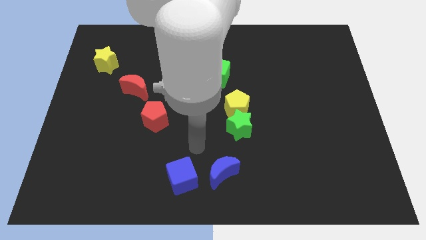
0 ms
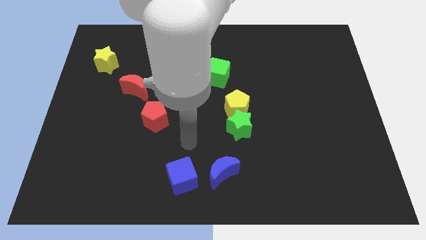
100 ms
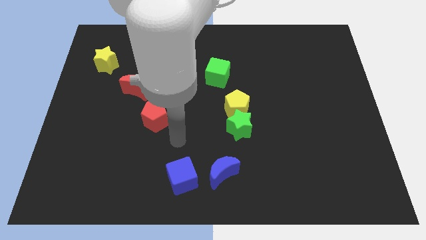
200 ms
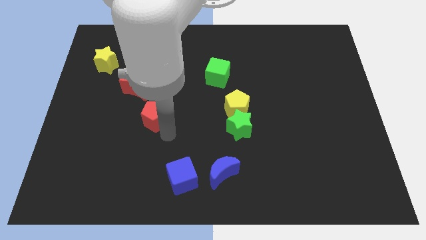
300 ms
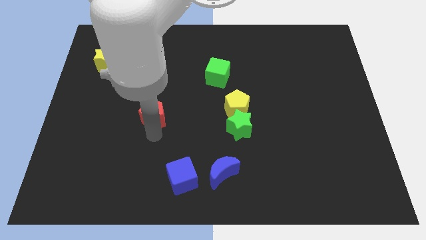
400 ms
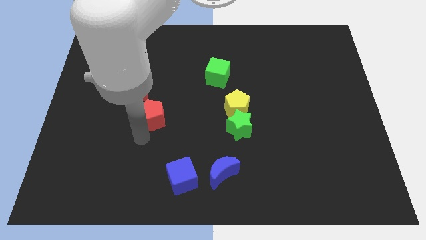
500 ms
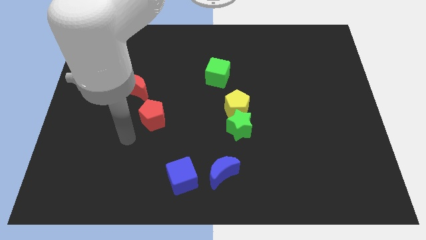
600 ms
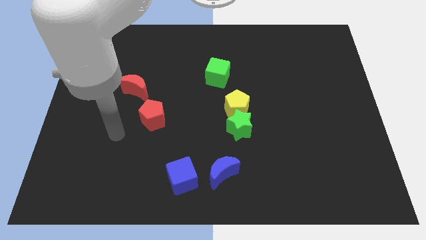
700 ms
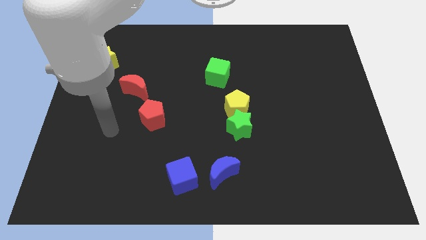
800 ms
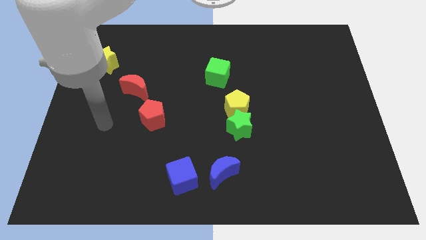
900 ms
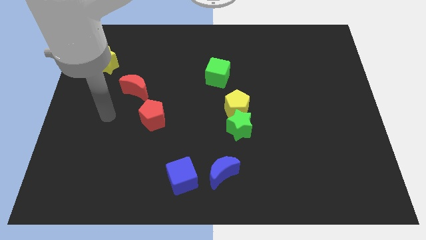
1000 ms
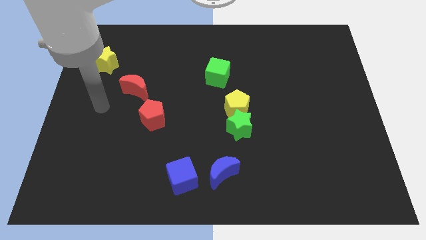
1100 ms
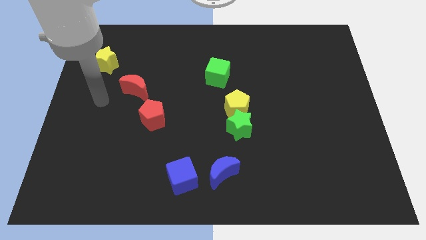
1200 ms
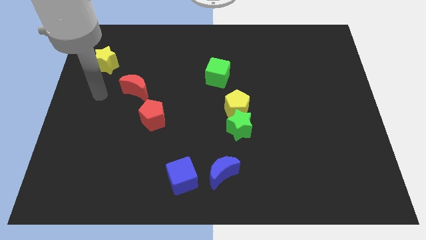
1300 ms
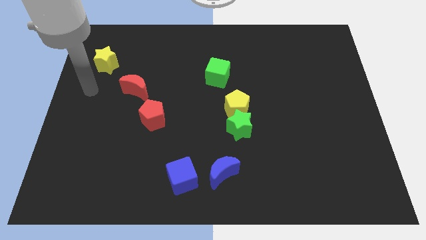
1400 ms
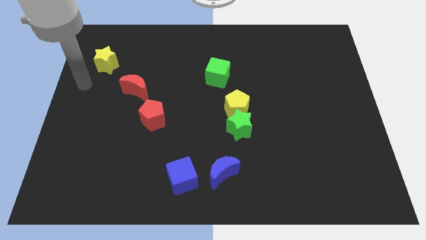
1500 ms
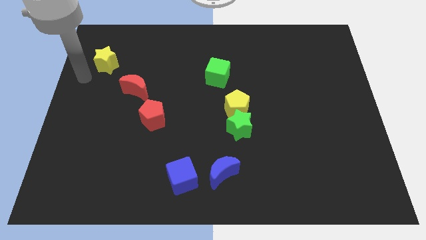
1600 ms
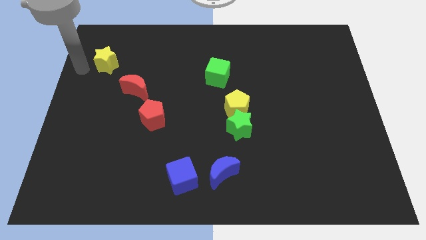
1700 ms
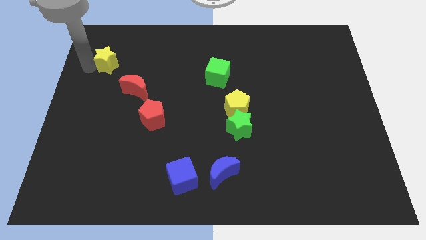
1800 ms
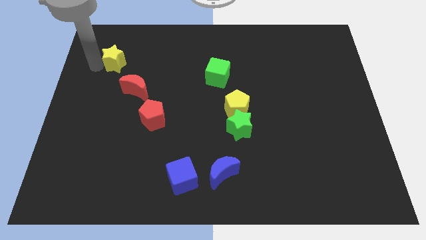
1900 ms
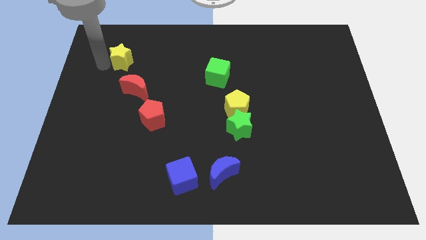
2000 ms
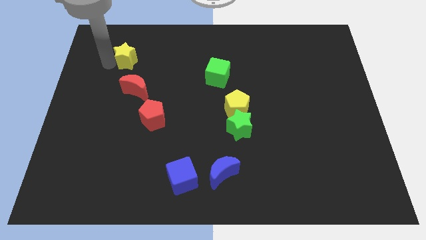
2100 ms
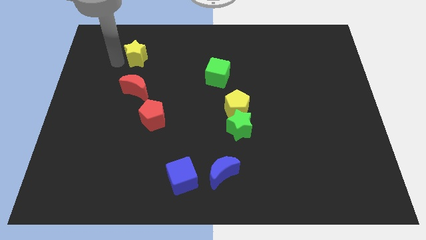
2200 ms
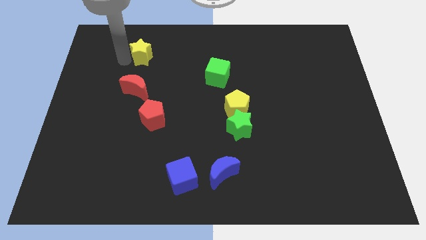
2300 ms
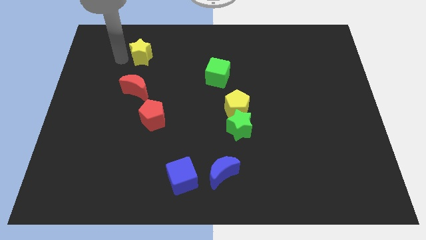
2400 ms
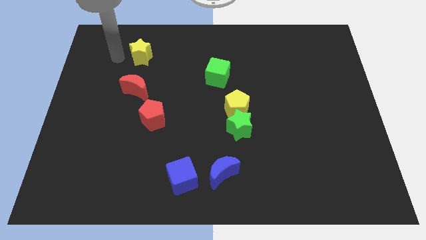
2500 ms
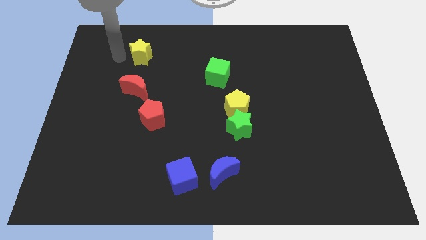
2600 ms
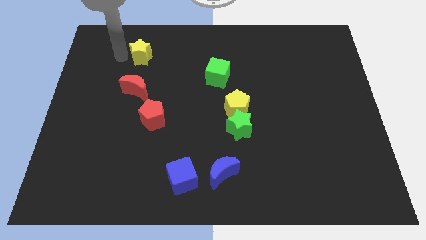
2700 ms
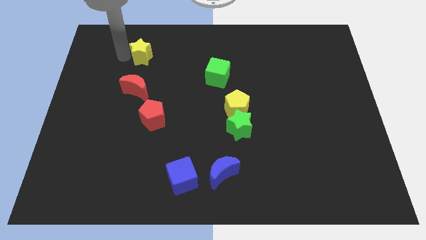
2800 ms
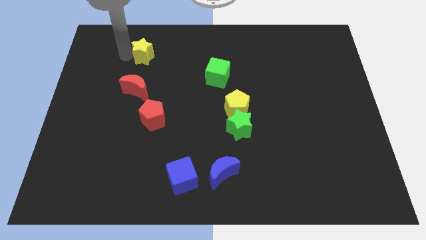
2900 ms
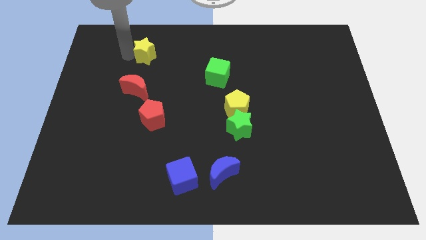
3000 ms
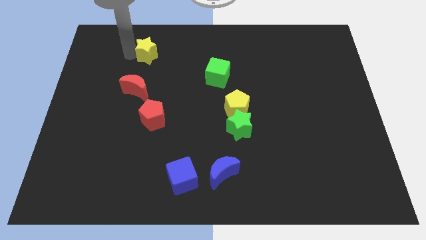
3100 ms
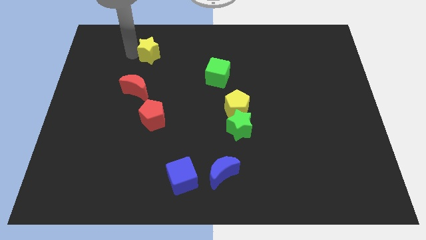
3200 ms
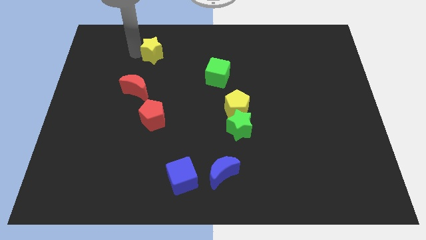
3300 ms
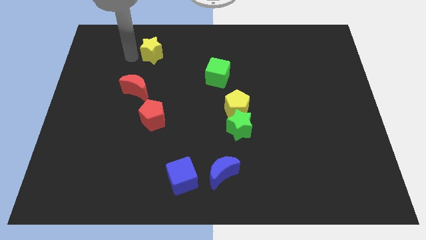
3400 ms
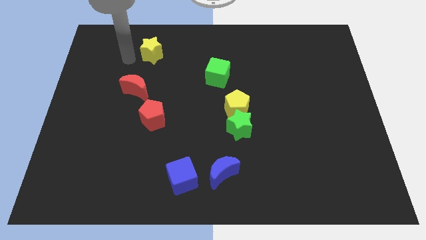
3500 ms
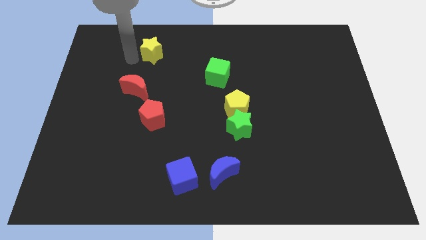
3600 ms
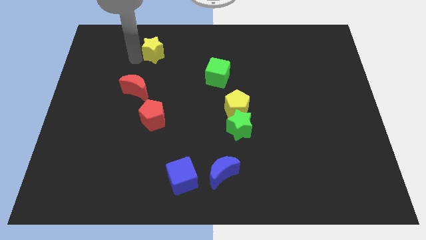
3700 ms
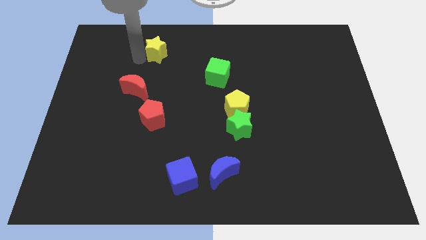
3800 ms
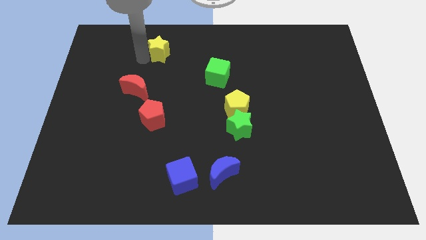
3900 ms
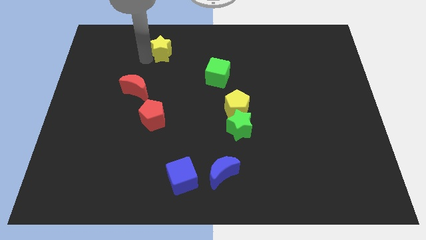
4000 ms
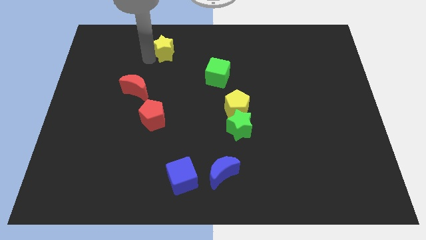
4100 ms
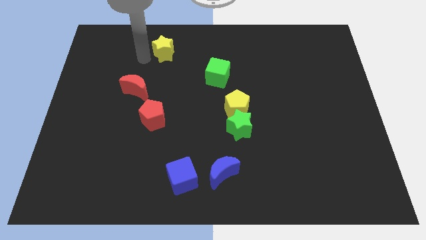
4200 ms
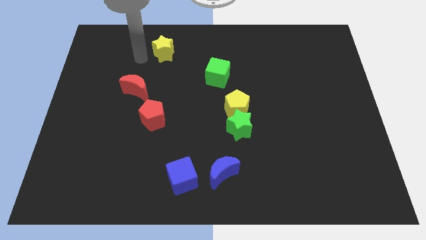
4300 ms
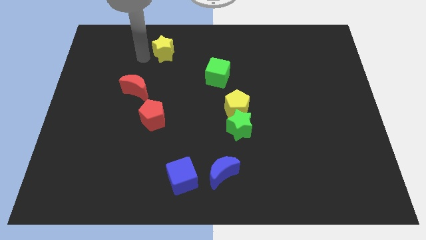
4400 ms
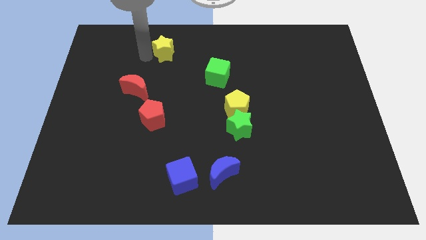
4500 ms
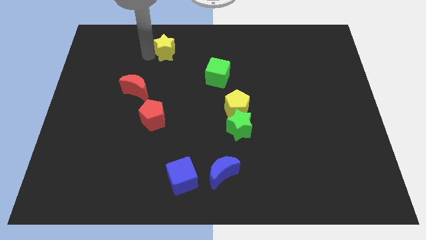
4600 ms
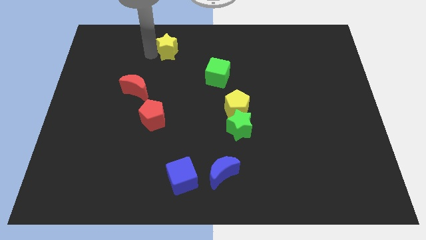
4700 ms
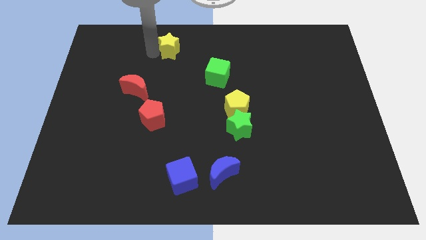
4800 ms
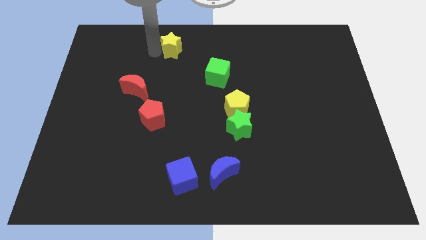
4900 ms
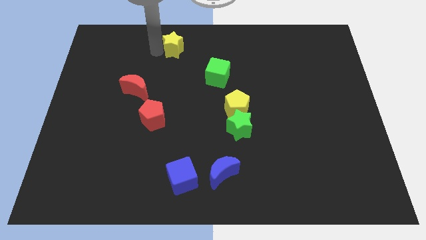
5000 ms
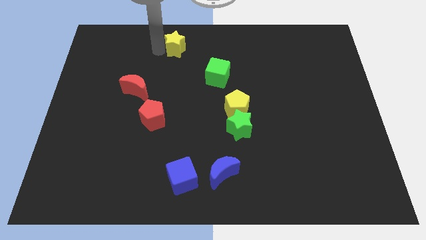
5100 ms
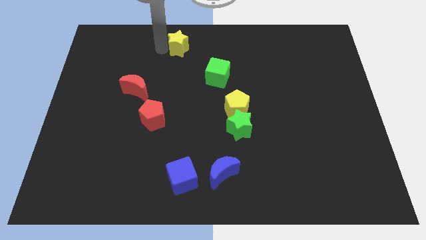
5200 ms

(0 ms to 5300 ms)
push the yellow star to the towards your base
